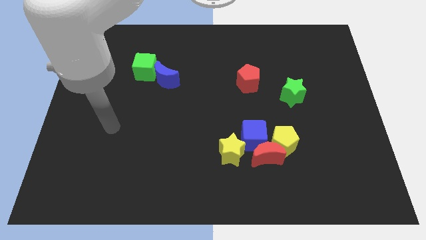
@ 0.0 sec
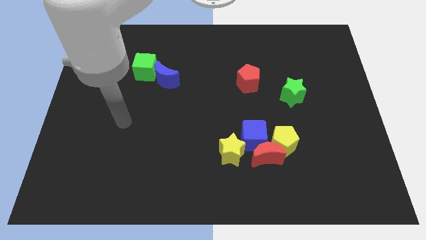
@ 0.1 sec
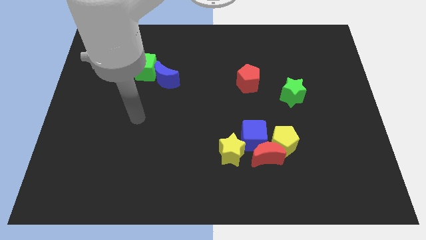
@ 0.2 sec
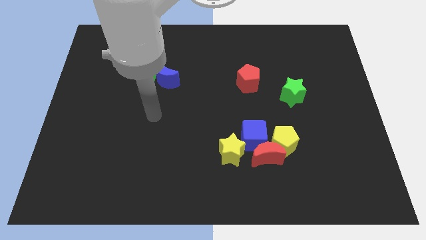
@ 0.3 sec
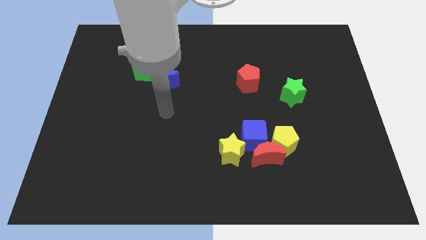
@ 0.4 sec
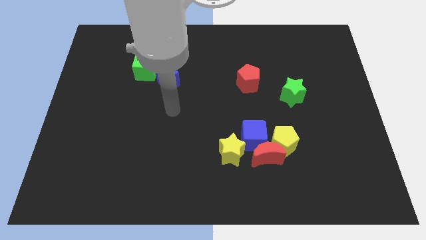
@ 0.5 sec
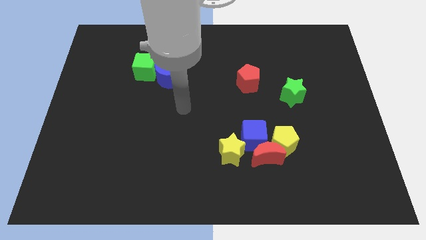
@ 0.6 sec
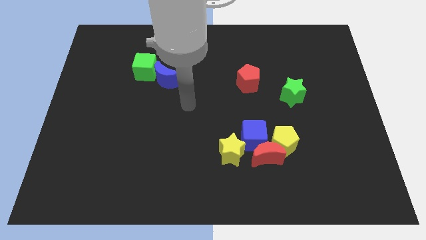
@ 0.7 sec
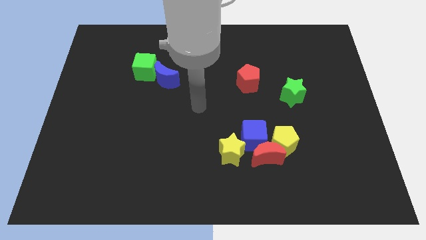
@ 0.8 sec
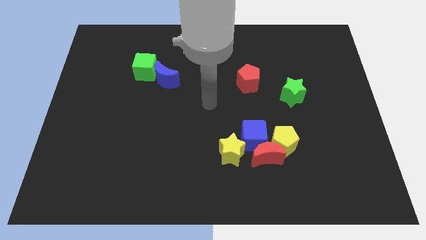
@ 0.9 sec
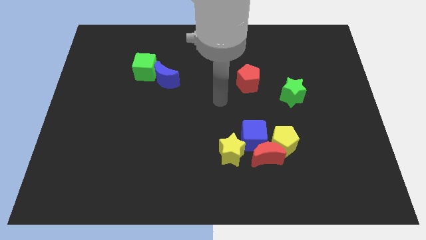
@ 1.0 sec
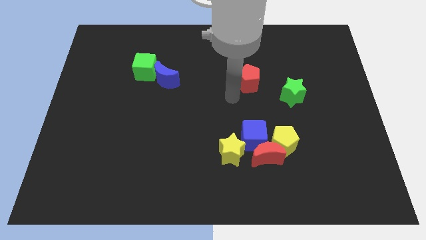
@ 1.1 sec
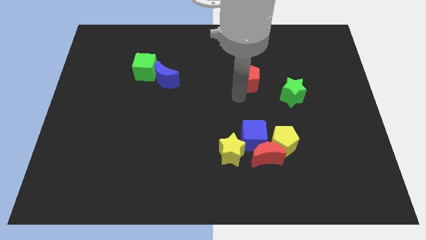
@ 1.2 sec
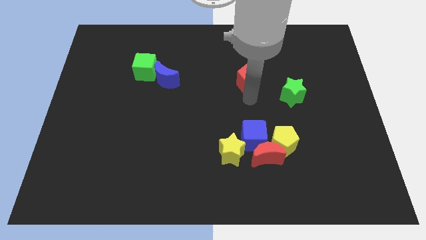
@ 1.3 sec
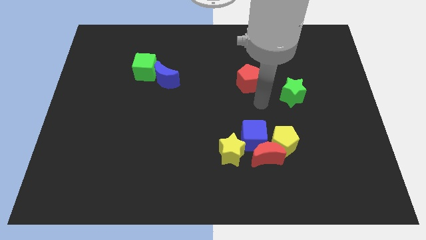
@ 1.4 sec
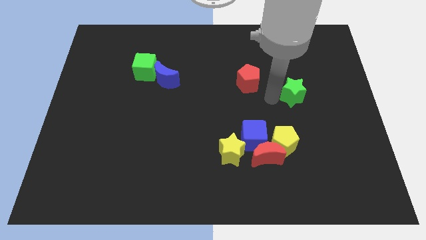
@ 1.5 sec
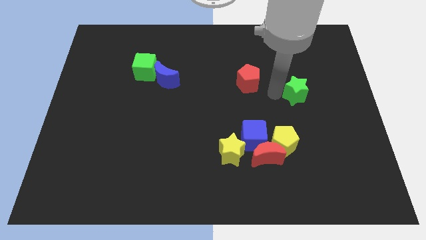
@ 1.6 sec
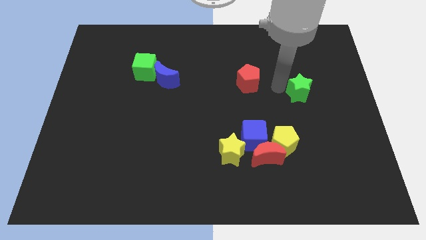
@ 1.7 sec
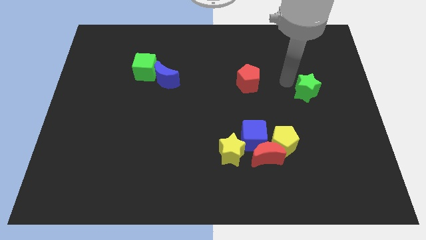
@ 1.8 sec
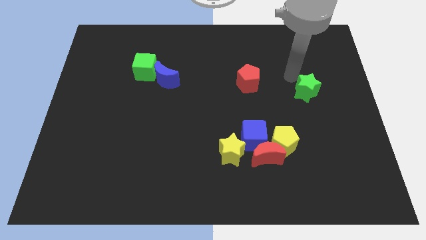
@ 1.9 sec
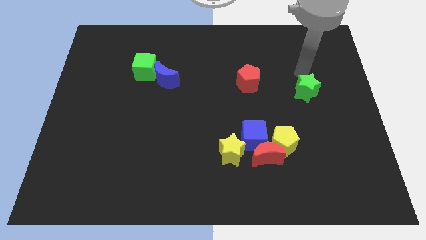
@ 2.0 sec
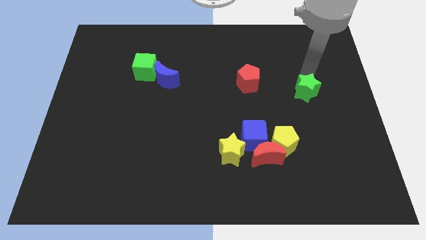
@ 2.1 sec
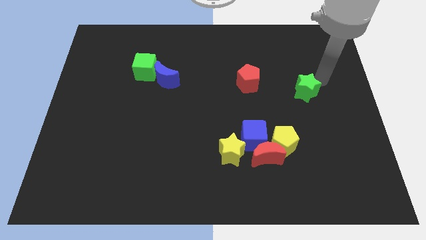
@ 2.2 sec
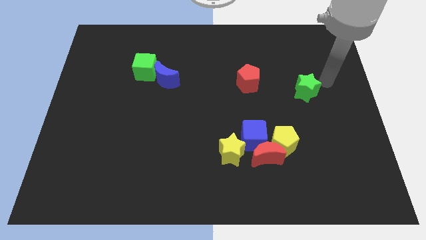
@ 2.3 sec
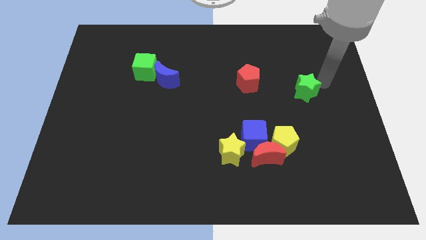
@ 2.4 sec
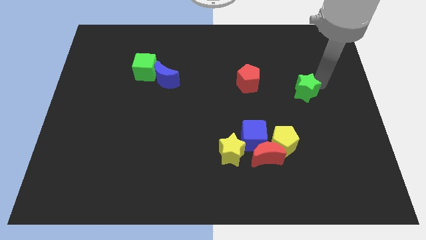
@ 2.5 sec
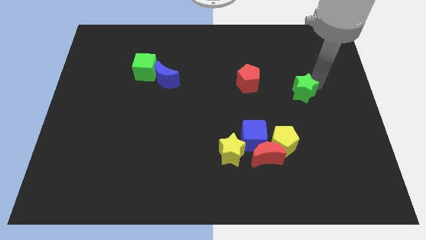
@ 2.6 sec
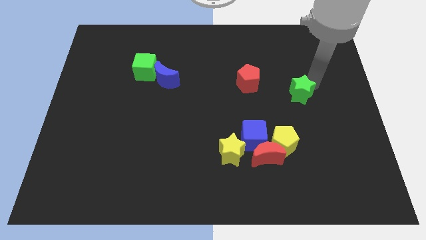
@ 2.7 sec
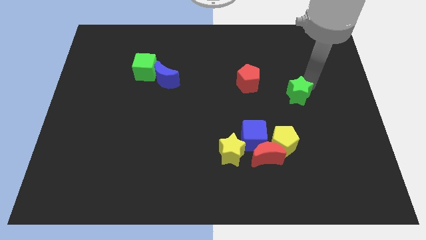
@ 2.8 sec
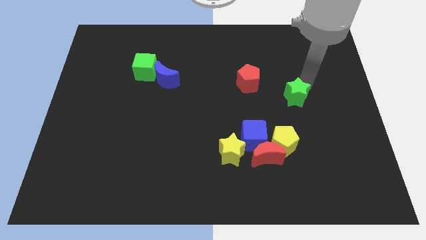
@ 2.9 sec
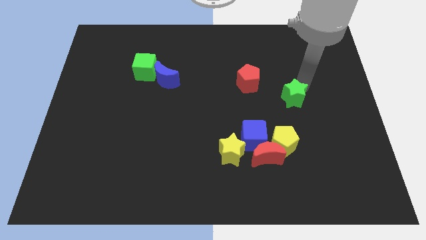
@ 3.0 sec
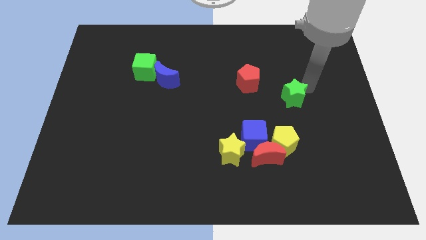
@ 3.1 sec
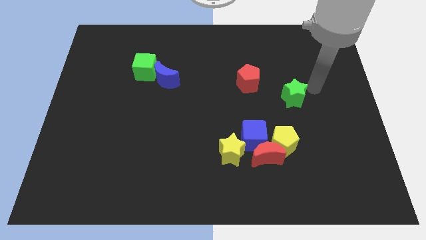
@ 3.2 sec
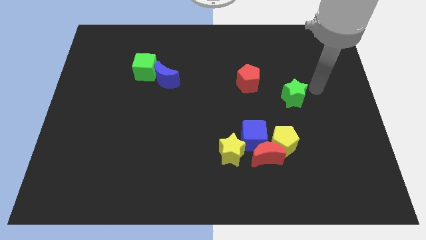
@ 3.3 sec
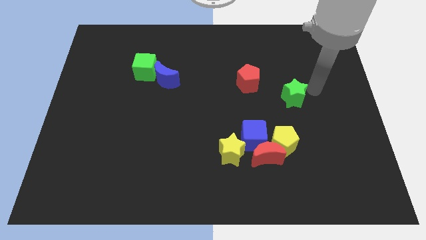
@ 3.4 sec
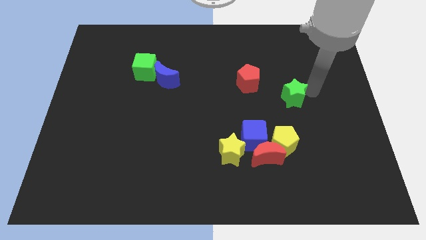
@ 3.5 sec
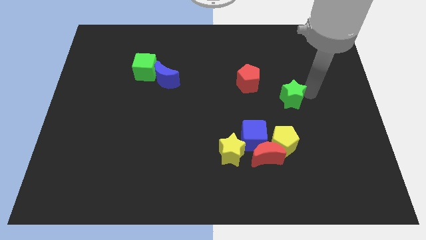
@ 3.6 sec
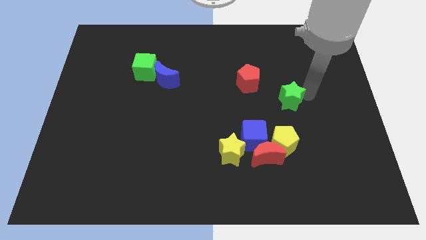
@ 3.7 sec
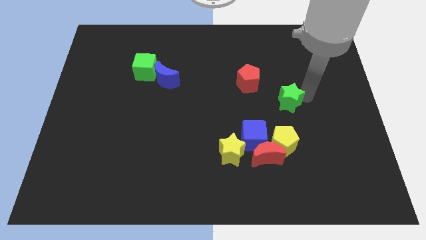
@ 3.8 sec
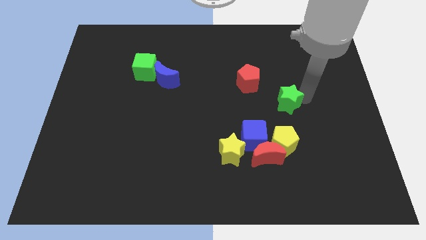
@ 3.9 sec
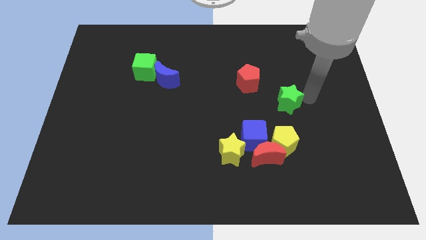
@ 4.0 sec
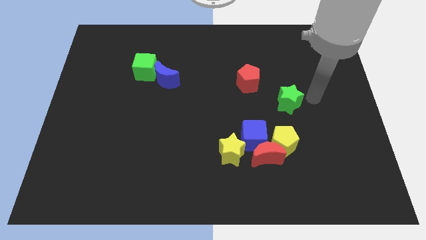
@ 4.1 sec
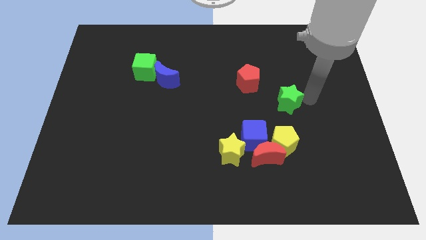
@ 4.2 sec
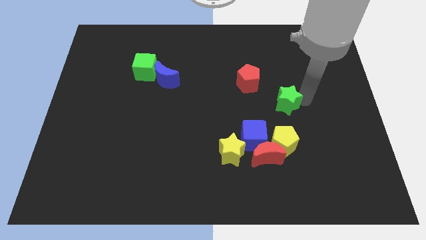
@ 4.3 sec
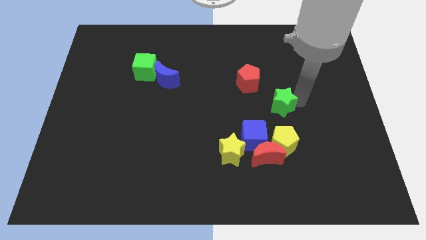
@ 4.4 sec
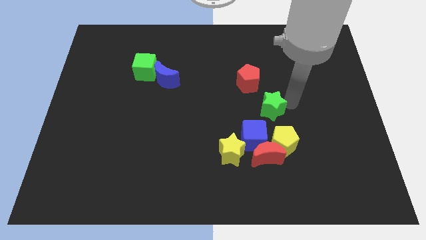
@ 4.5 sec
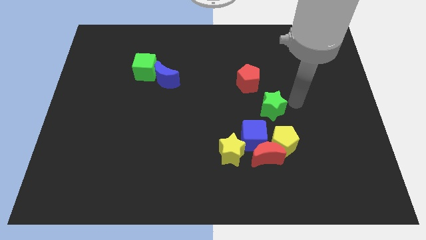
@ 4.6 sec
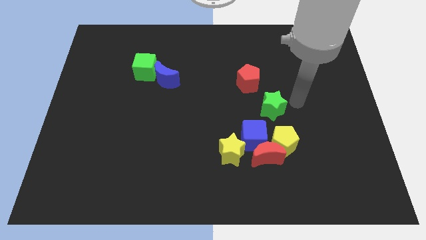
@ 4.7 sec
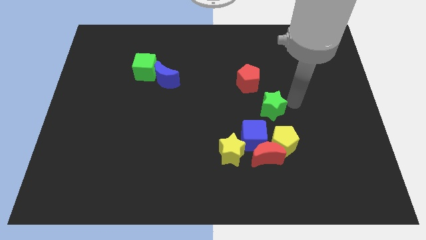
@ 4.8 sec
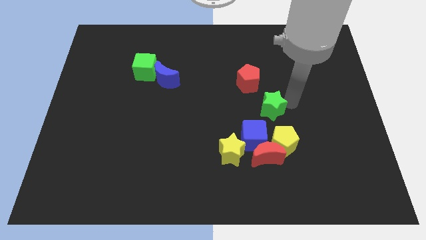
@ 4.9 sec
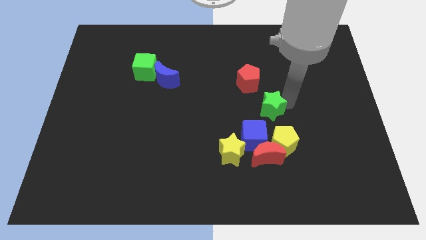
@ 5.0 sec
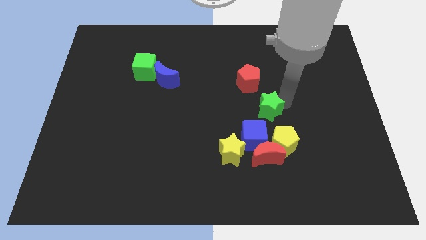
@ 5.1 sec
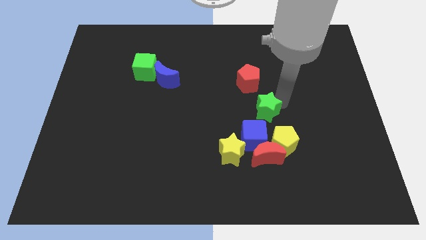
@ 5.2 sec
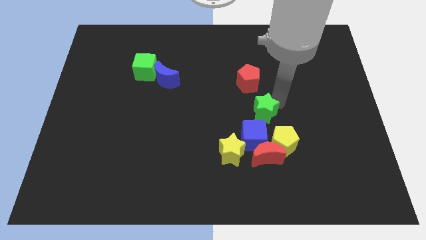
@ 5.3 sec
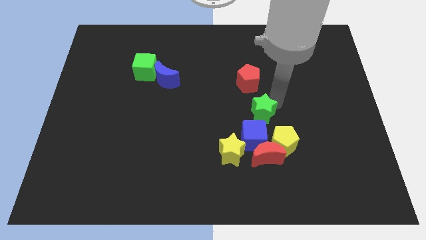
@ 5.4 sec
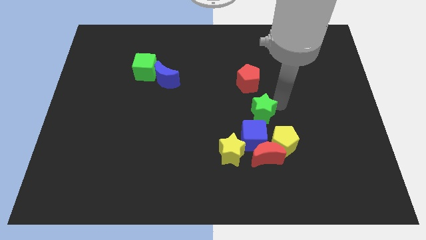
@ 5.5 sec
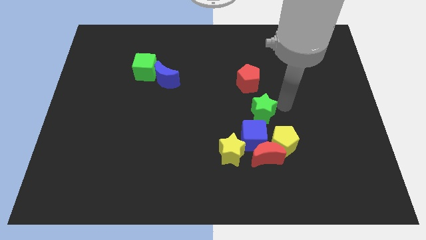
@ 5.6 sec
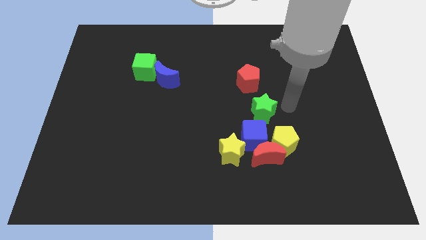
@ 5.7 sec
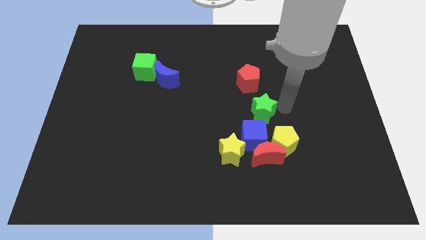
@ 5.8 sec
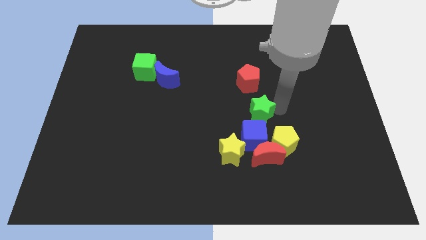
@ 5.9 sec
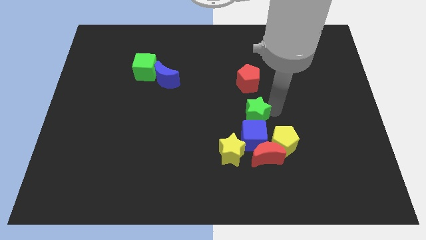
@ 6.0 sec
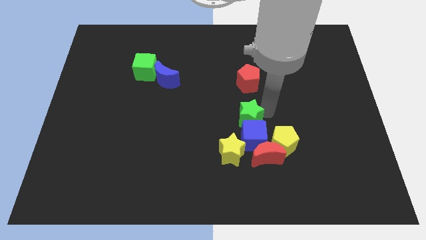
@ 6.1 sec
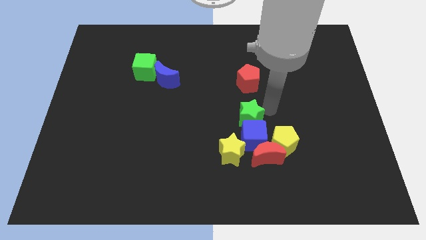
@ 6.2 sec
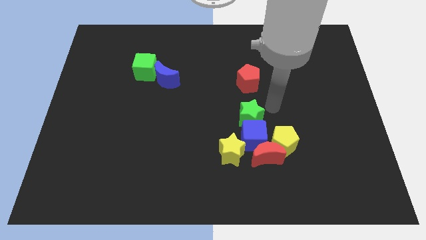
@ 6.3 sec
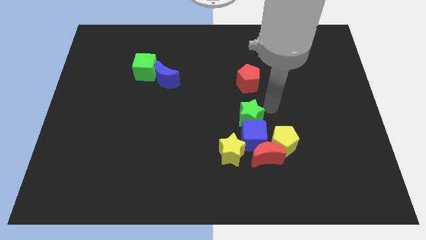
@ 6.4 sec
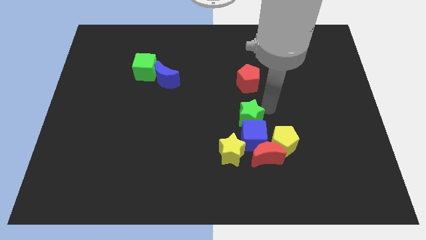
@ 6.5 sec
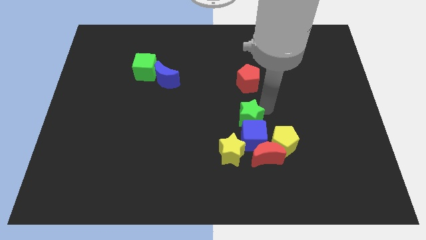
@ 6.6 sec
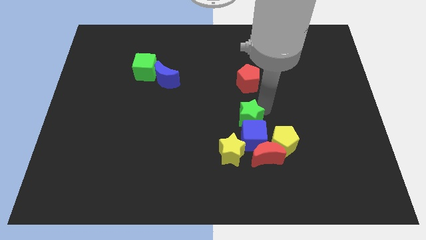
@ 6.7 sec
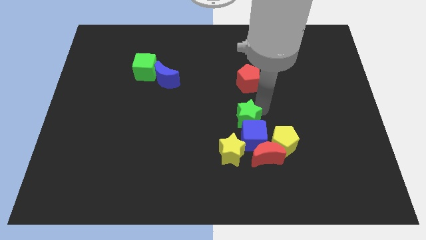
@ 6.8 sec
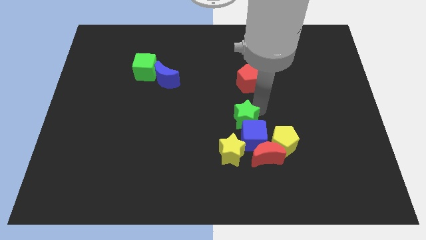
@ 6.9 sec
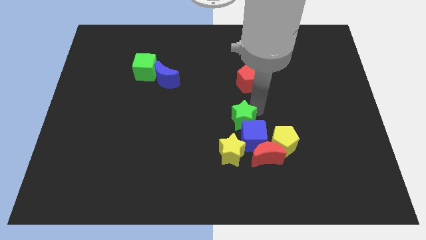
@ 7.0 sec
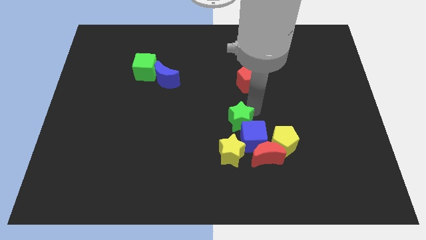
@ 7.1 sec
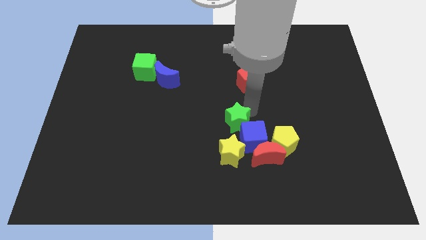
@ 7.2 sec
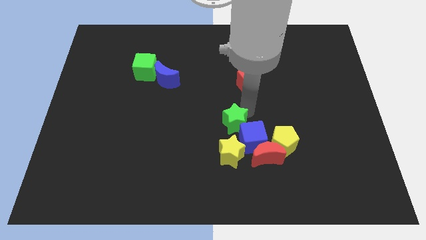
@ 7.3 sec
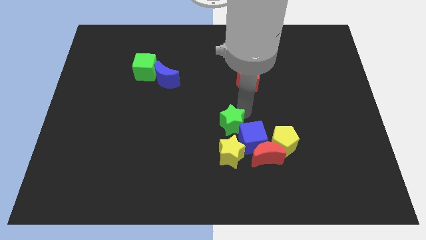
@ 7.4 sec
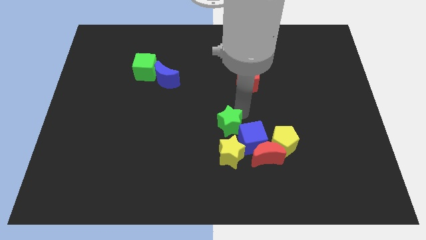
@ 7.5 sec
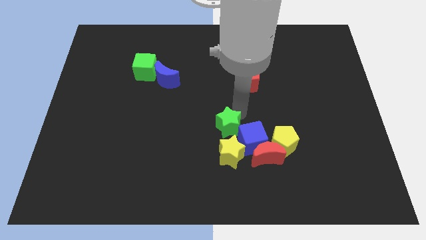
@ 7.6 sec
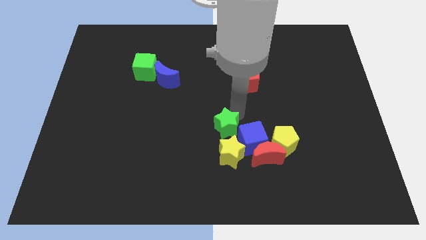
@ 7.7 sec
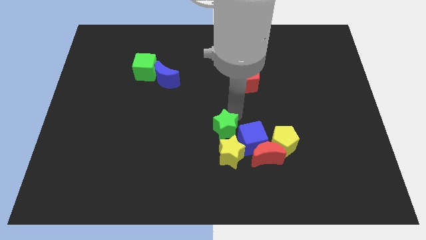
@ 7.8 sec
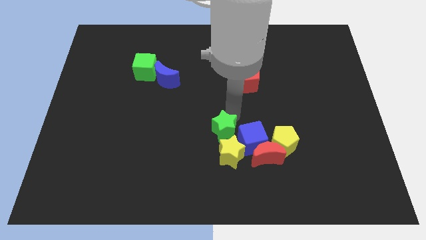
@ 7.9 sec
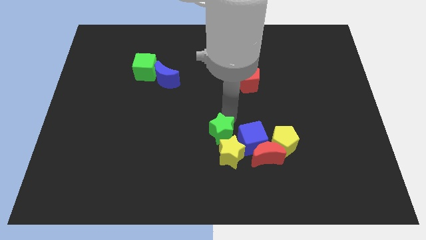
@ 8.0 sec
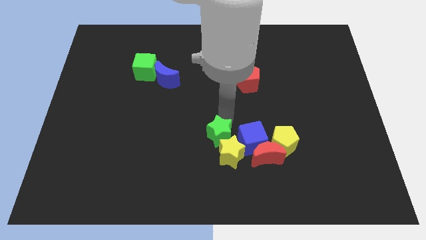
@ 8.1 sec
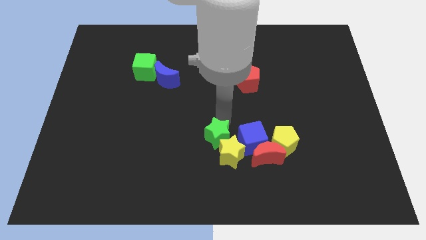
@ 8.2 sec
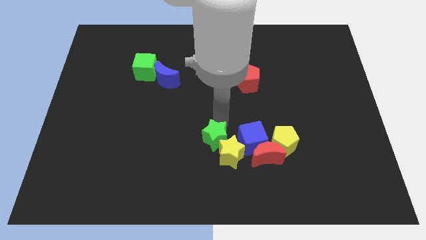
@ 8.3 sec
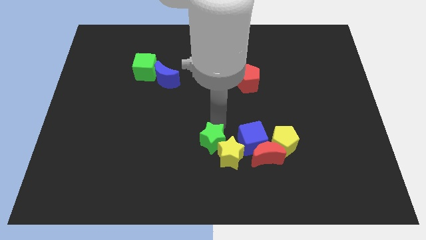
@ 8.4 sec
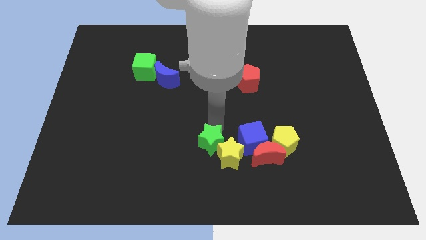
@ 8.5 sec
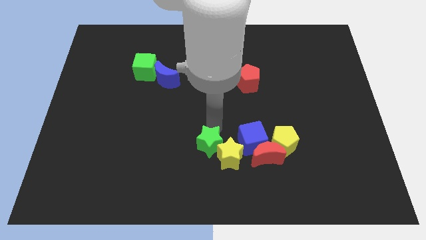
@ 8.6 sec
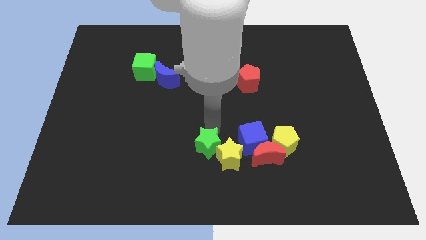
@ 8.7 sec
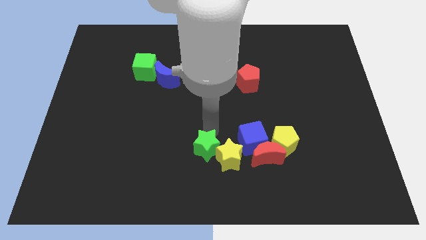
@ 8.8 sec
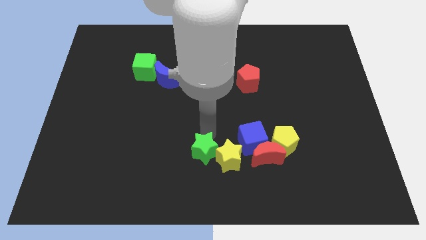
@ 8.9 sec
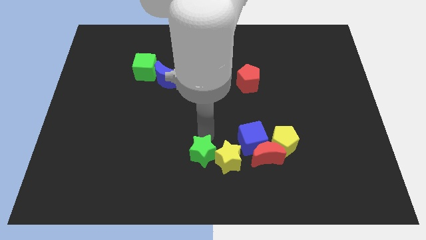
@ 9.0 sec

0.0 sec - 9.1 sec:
push the green star to the bottom
